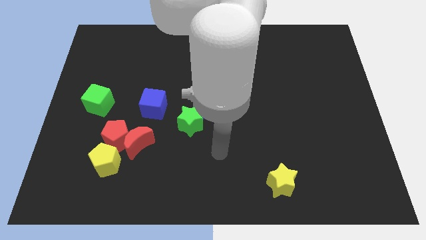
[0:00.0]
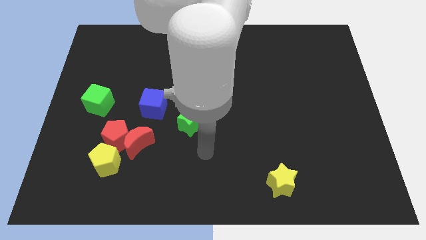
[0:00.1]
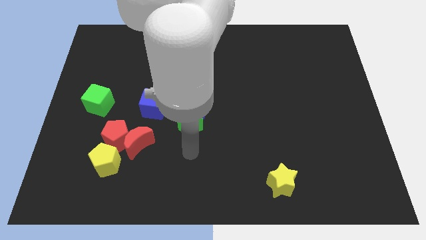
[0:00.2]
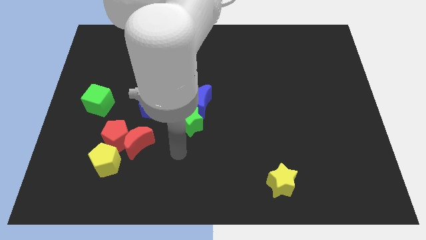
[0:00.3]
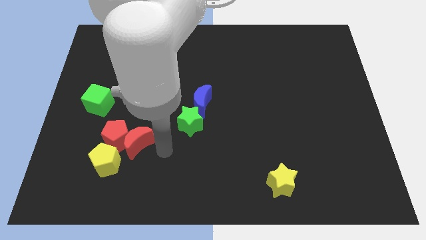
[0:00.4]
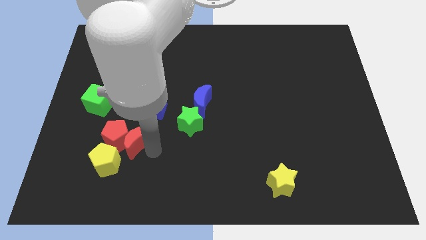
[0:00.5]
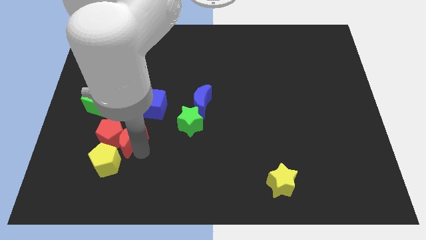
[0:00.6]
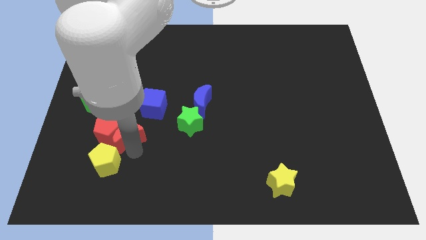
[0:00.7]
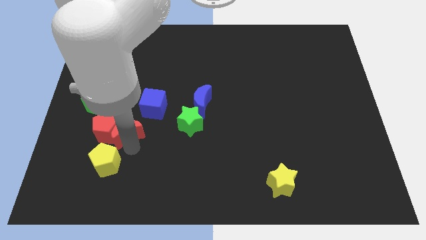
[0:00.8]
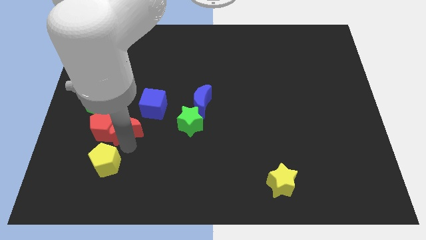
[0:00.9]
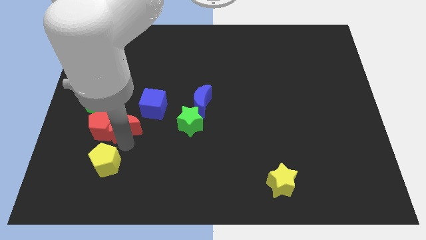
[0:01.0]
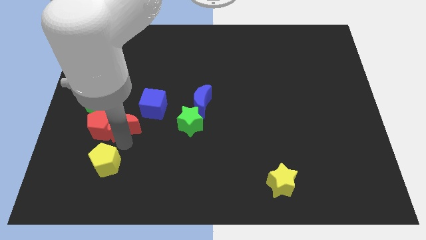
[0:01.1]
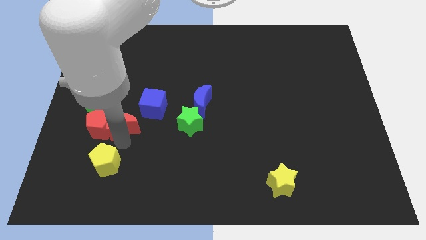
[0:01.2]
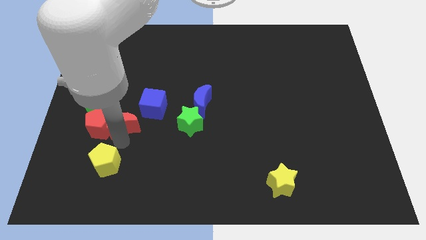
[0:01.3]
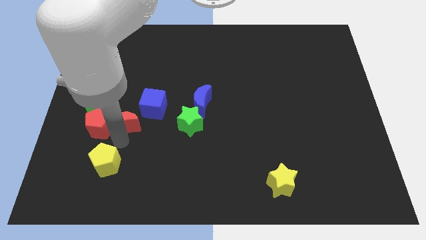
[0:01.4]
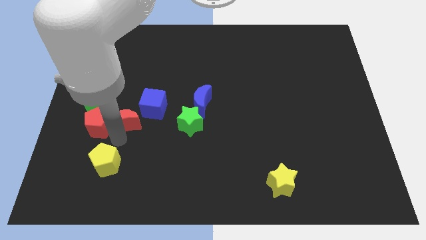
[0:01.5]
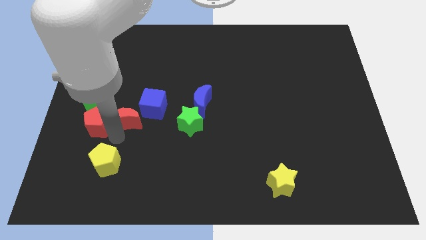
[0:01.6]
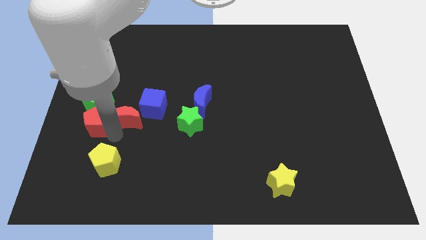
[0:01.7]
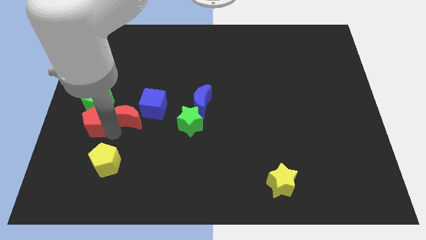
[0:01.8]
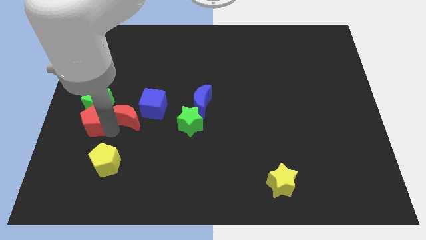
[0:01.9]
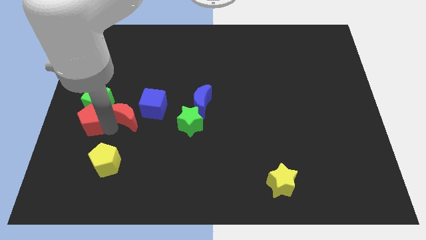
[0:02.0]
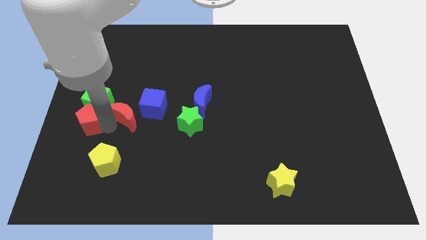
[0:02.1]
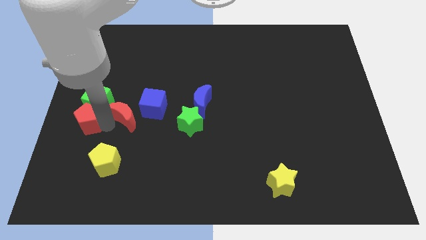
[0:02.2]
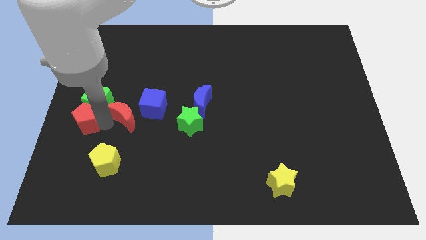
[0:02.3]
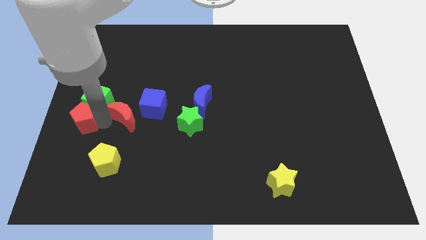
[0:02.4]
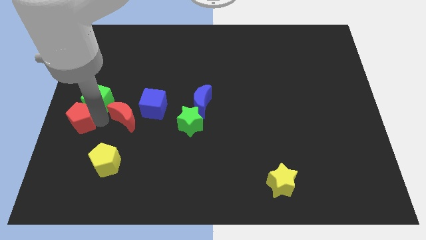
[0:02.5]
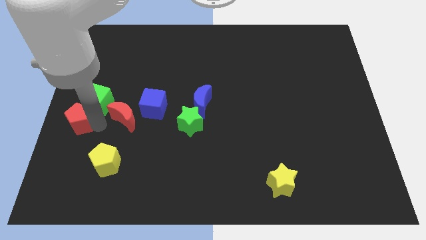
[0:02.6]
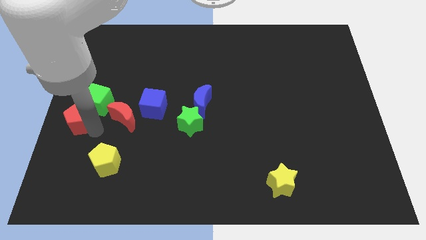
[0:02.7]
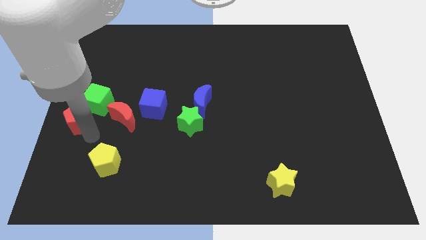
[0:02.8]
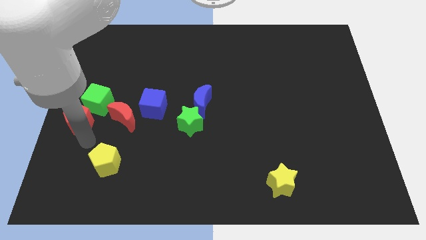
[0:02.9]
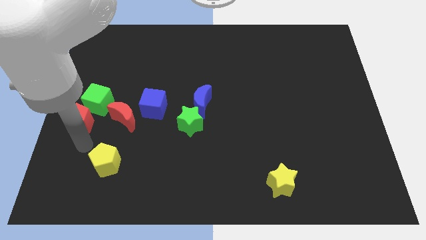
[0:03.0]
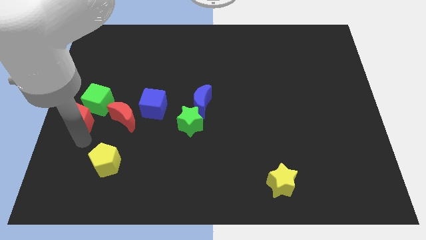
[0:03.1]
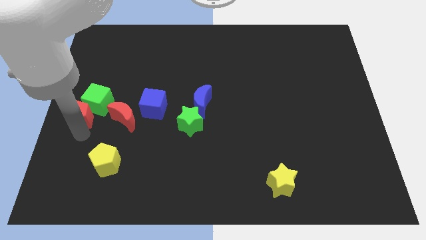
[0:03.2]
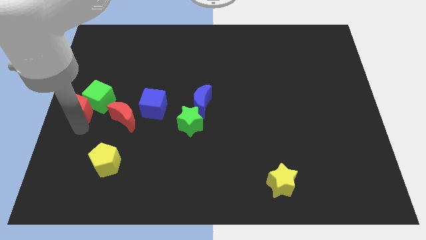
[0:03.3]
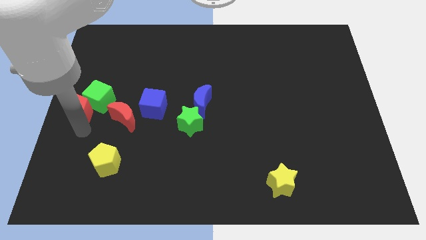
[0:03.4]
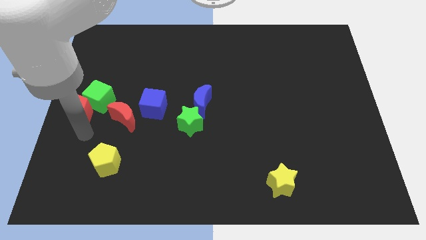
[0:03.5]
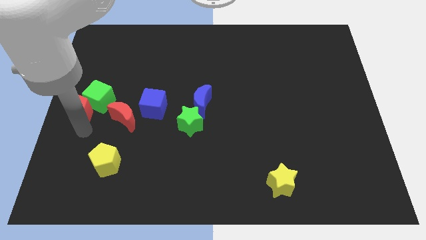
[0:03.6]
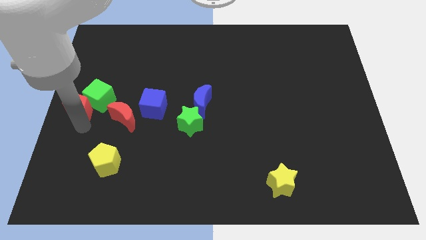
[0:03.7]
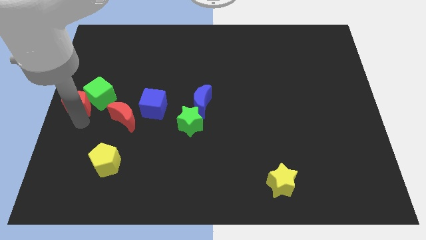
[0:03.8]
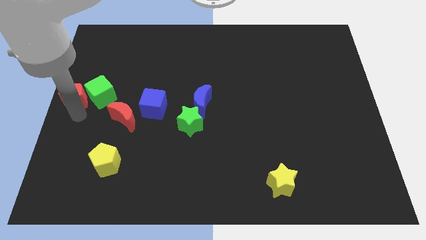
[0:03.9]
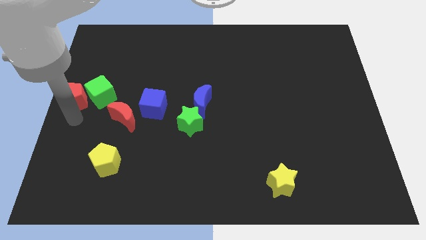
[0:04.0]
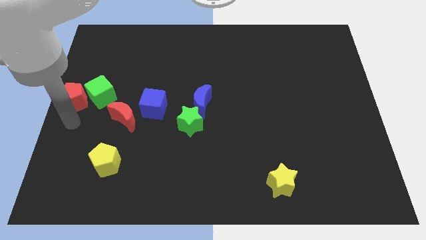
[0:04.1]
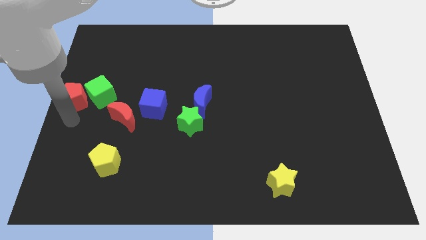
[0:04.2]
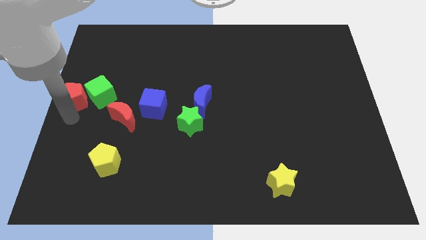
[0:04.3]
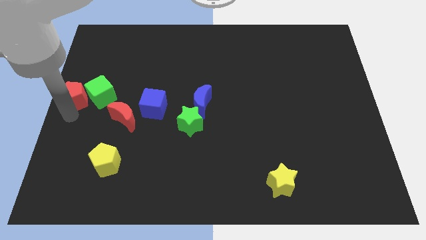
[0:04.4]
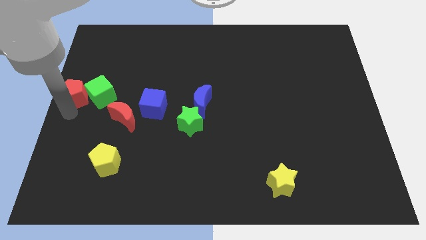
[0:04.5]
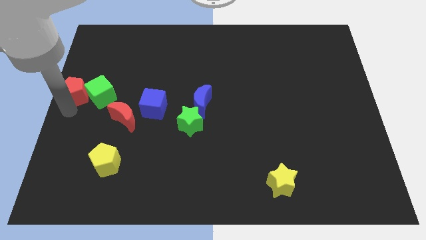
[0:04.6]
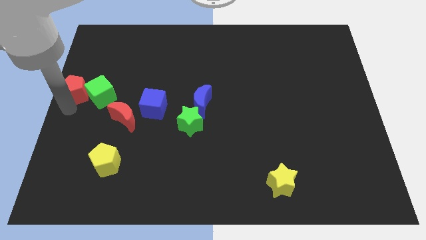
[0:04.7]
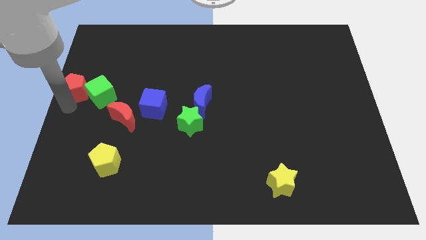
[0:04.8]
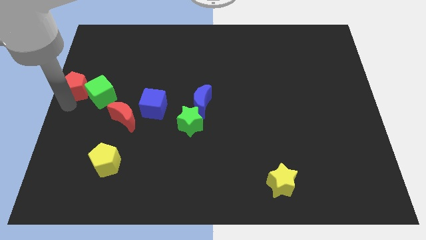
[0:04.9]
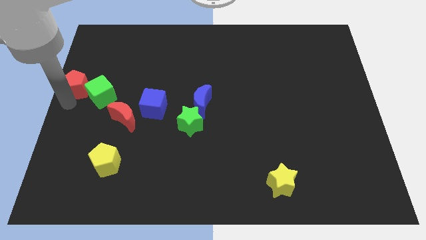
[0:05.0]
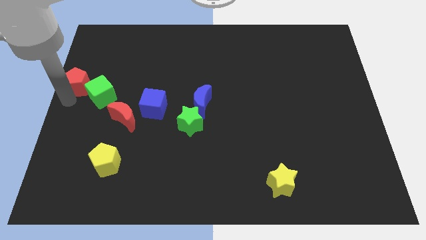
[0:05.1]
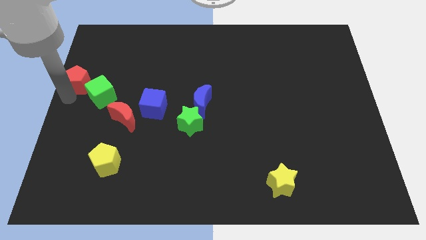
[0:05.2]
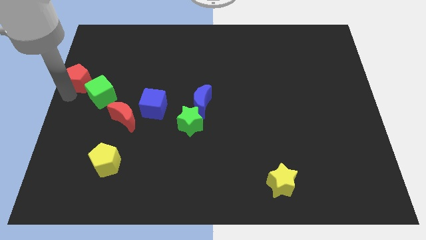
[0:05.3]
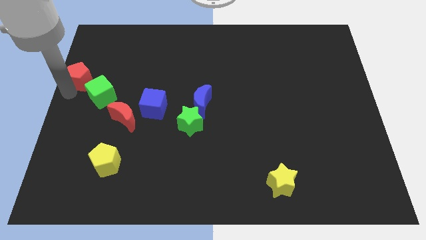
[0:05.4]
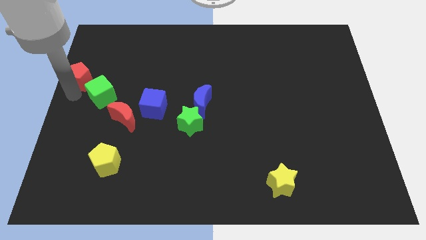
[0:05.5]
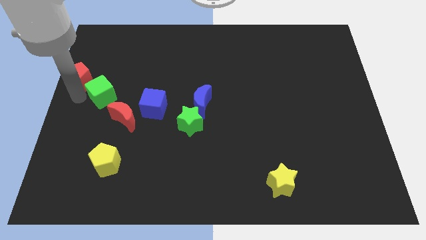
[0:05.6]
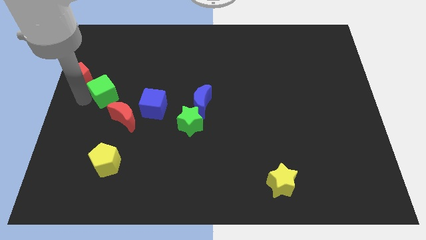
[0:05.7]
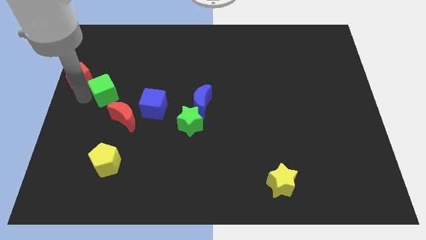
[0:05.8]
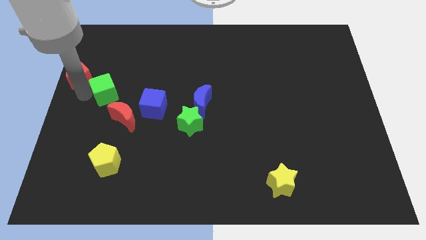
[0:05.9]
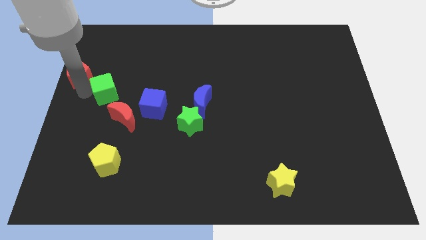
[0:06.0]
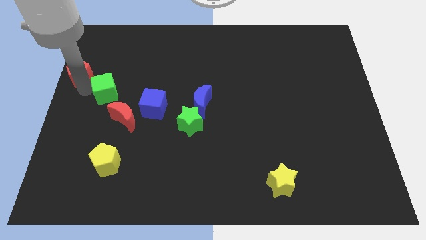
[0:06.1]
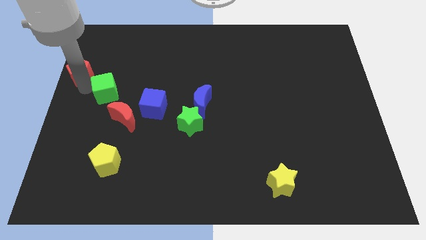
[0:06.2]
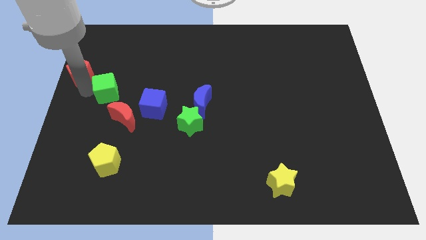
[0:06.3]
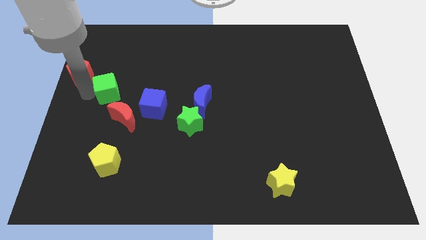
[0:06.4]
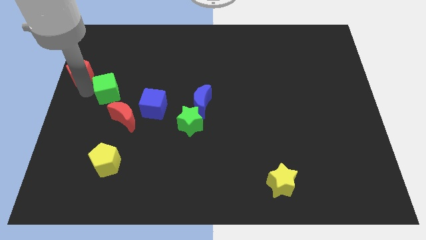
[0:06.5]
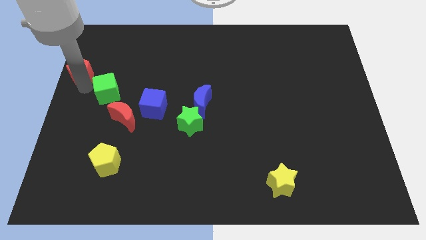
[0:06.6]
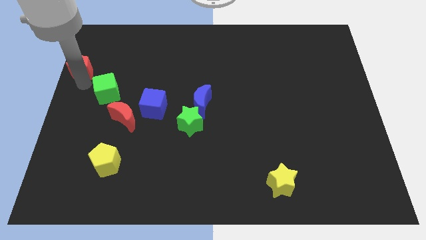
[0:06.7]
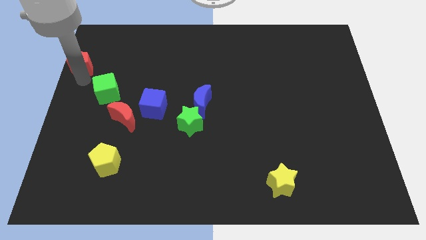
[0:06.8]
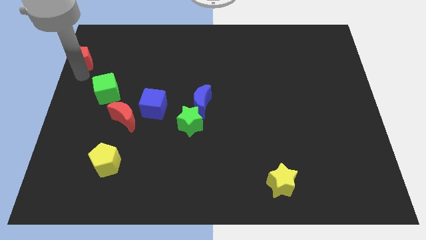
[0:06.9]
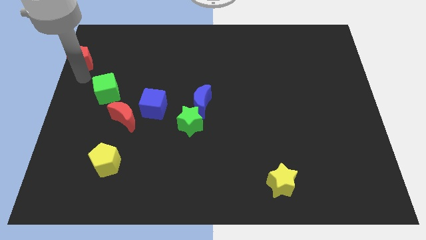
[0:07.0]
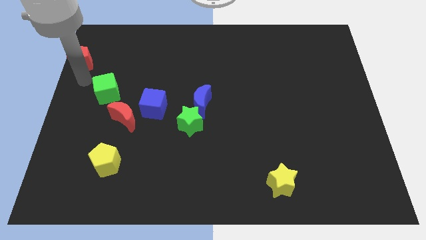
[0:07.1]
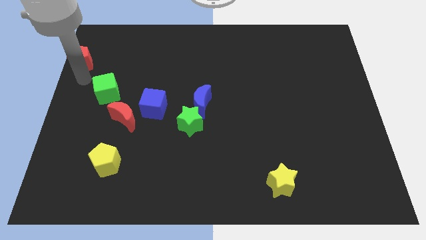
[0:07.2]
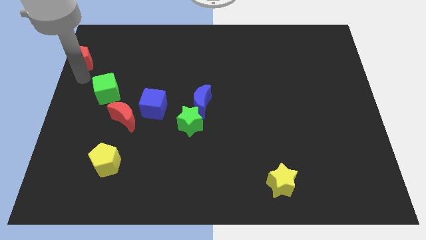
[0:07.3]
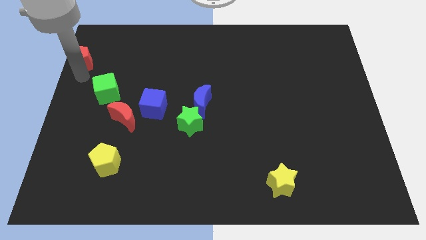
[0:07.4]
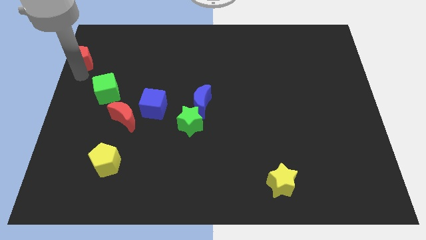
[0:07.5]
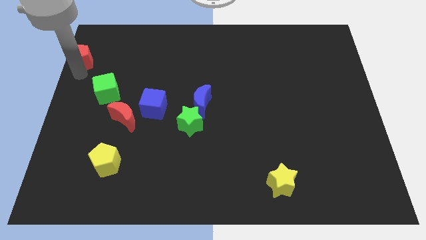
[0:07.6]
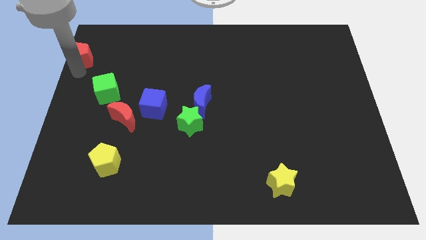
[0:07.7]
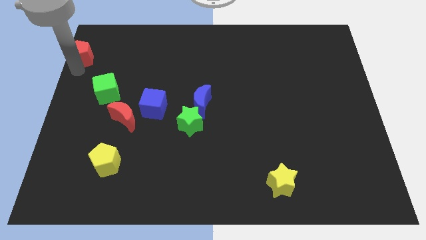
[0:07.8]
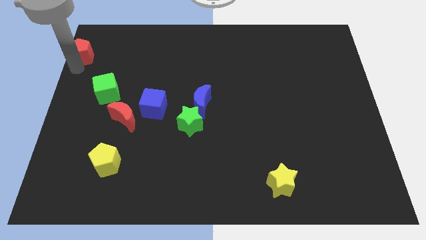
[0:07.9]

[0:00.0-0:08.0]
move the red pentagon to the upper left corner
